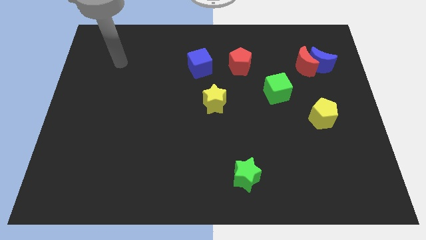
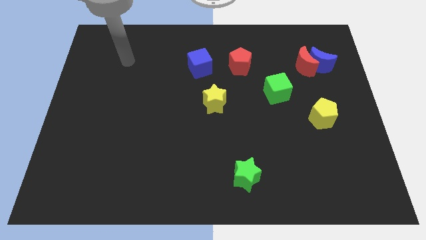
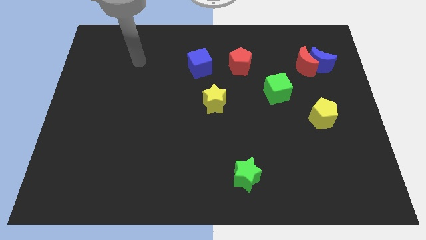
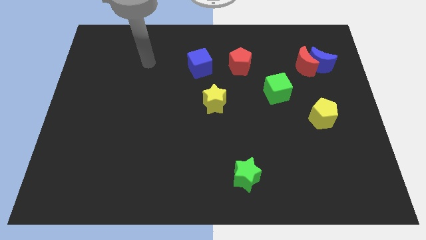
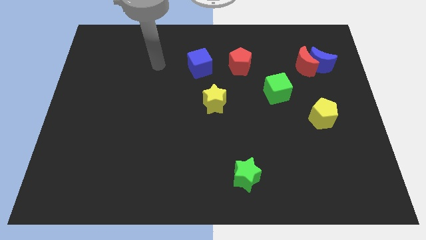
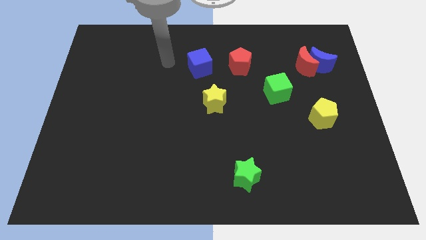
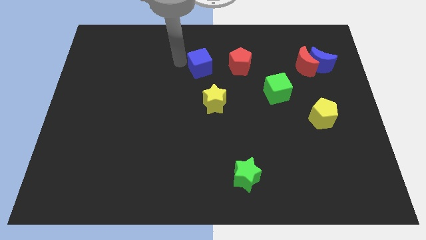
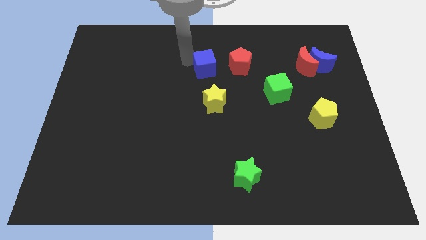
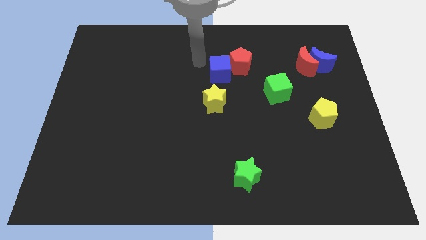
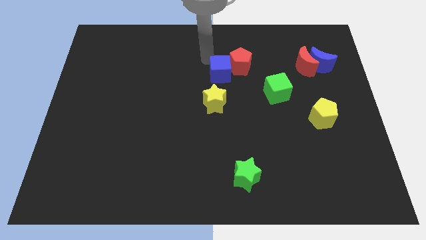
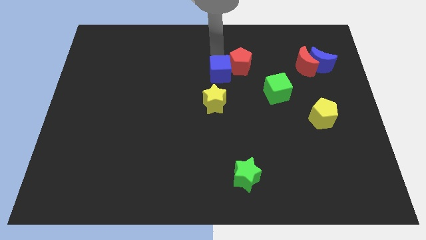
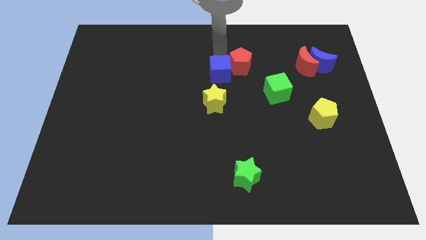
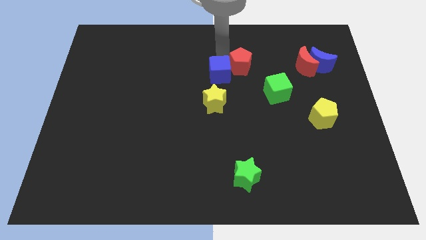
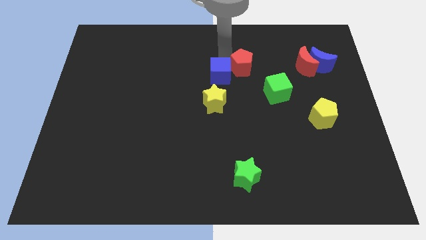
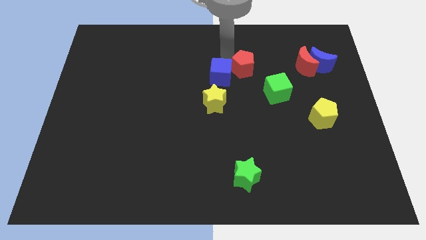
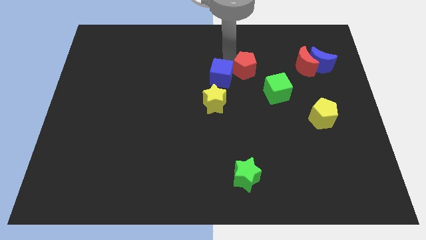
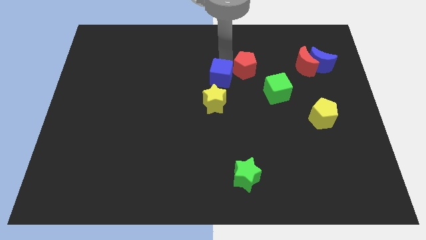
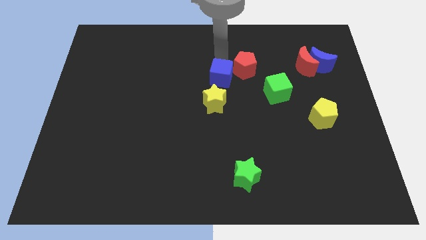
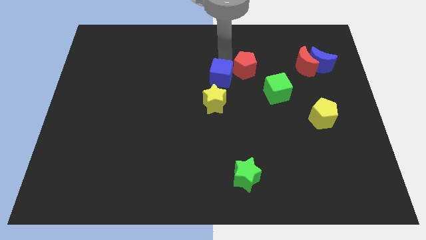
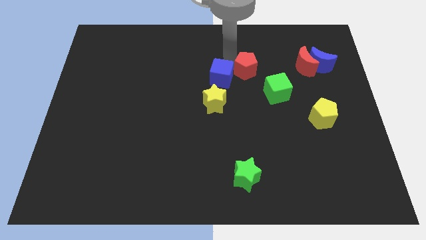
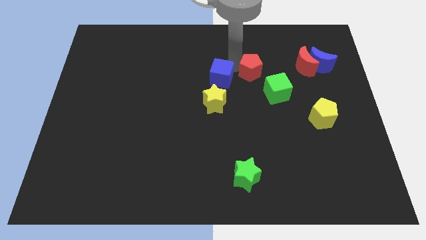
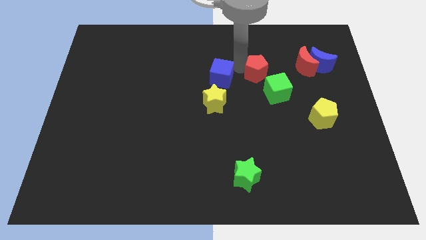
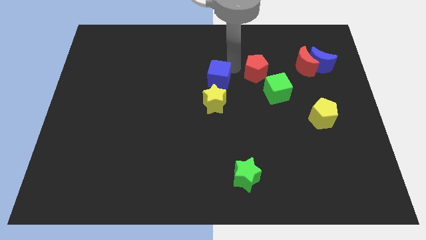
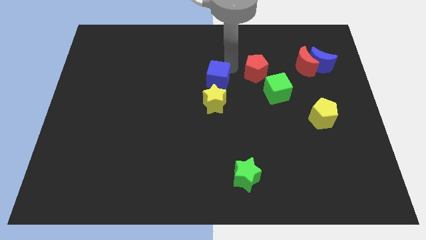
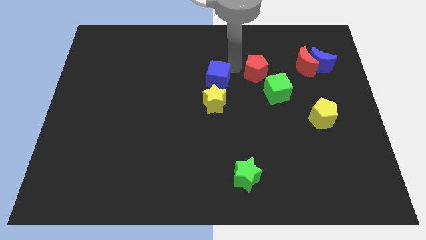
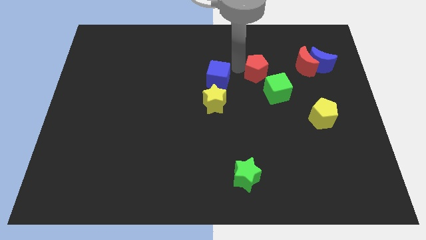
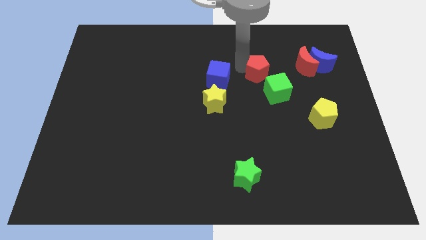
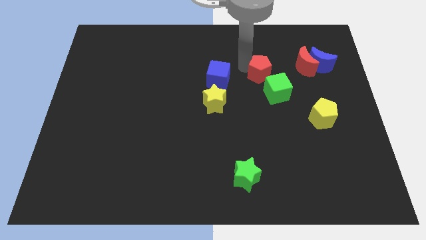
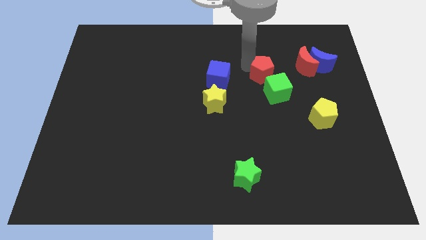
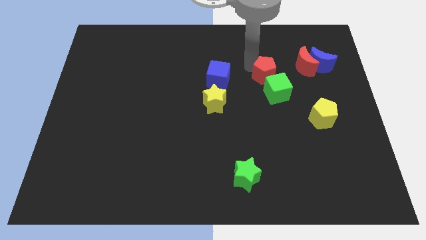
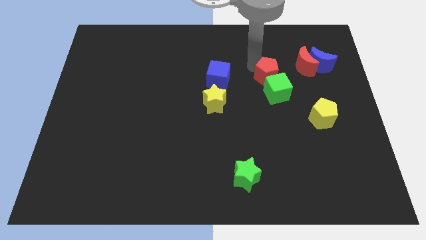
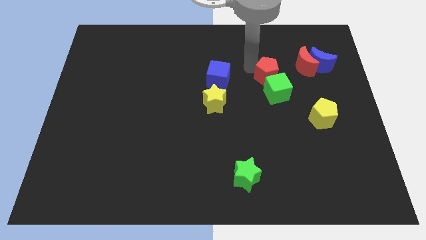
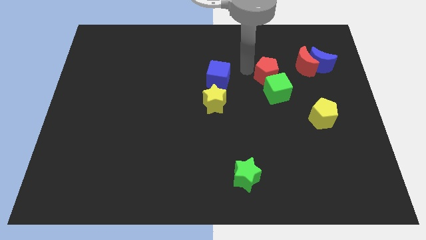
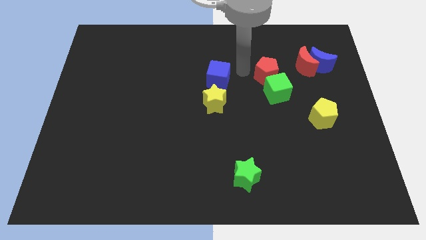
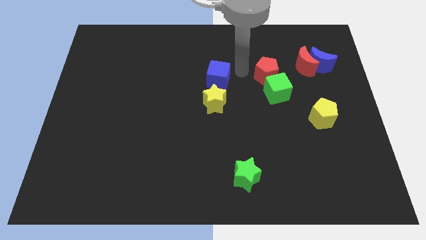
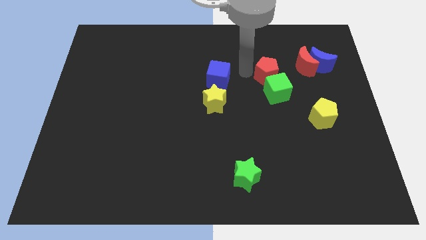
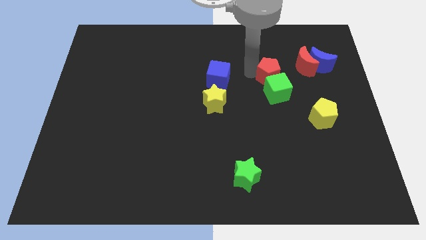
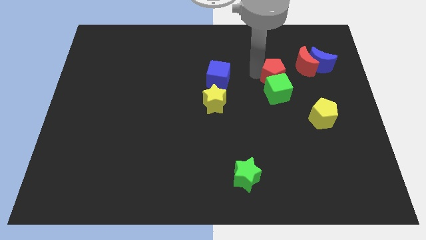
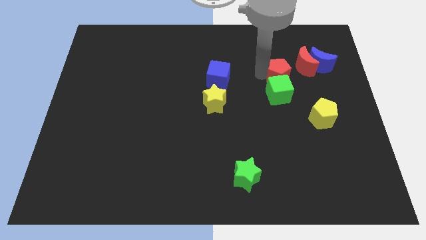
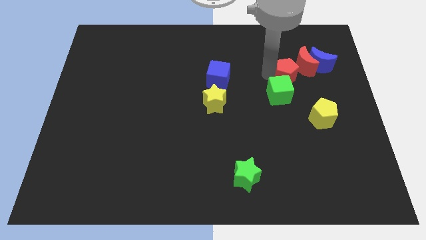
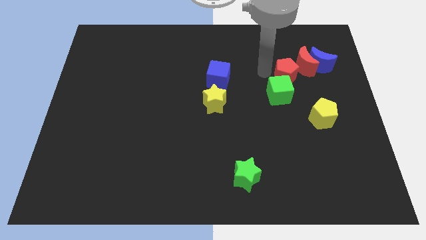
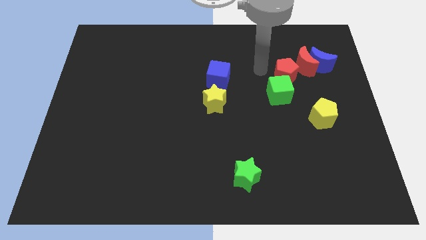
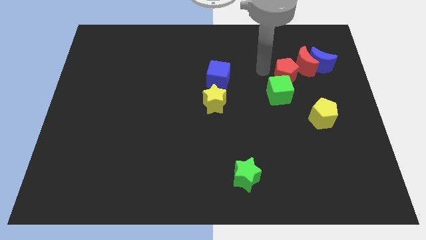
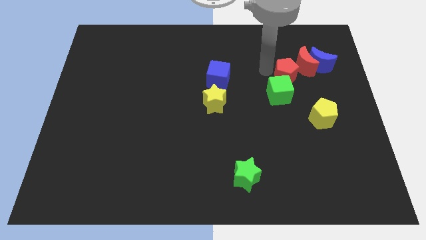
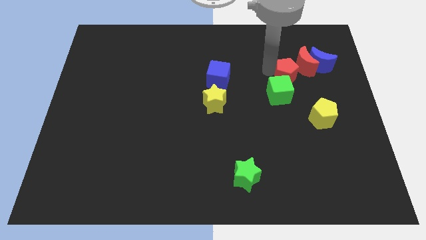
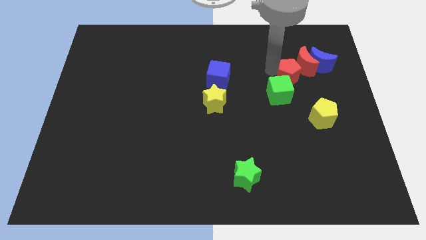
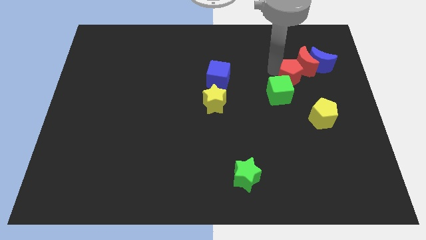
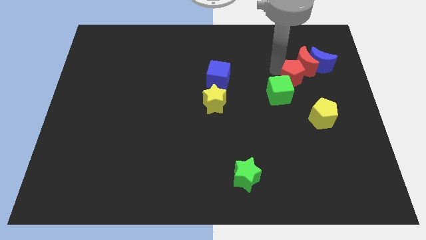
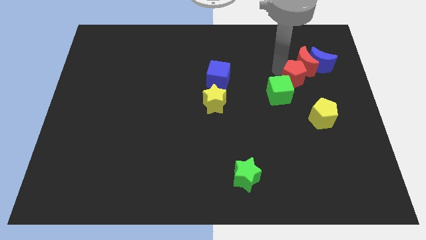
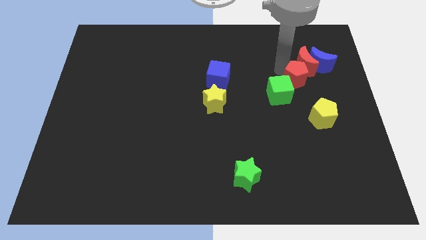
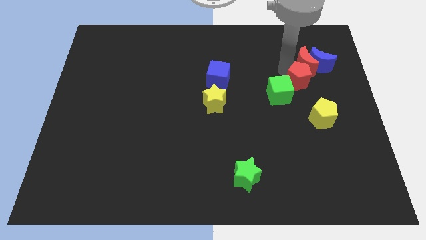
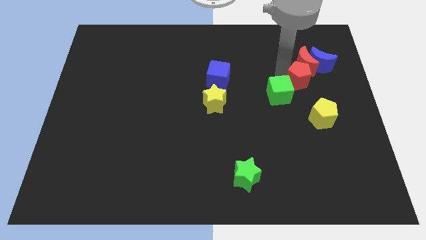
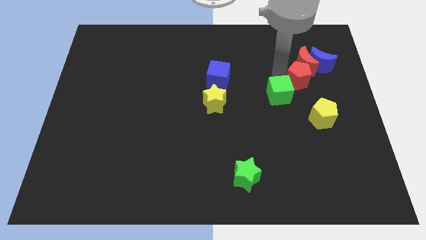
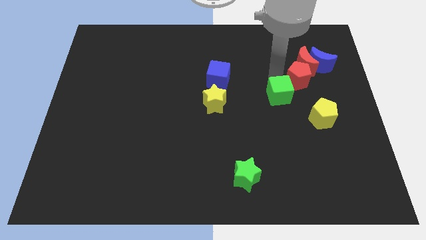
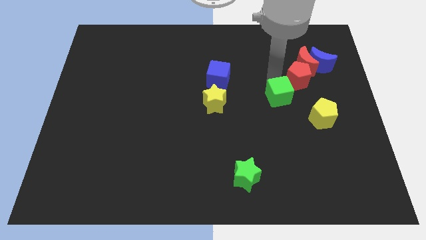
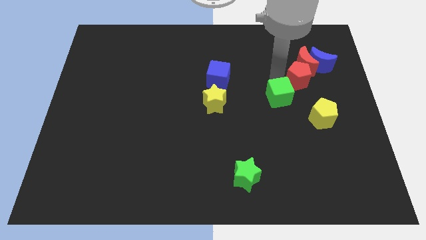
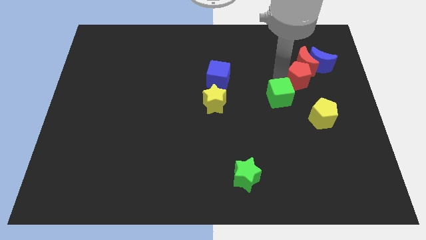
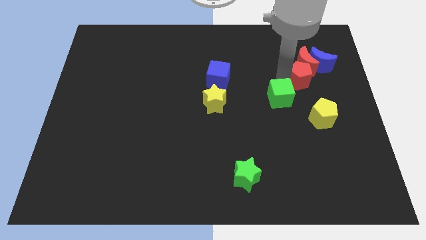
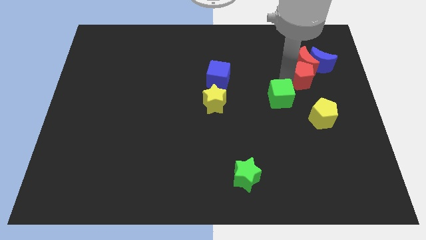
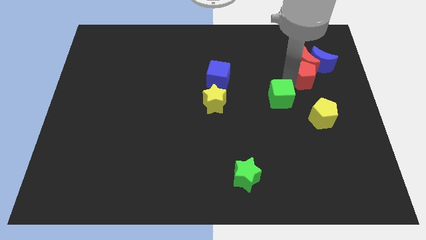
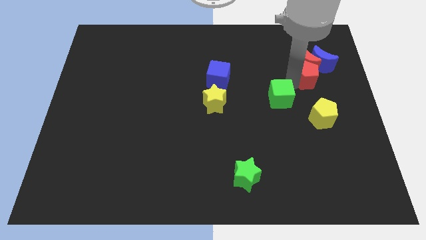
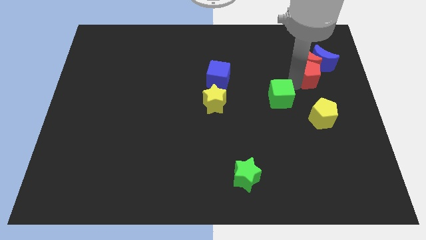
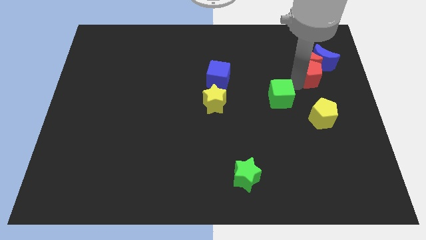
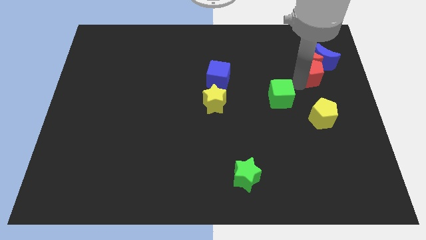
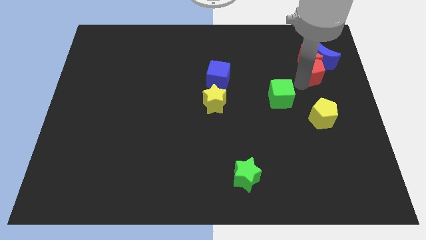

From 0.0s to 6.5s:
slide the red pentagon towards the blue moon

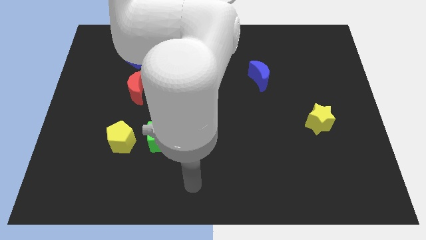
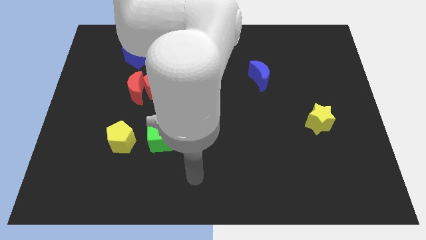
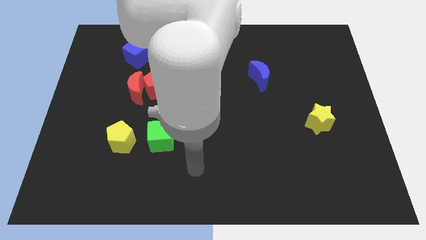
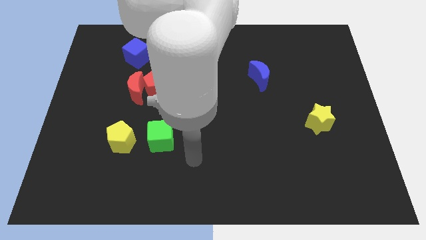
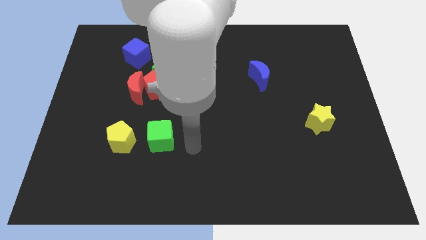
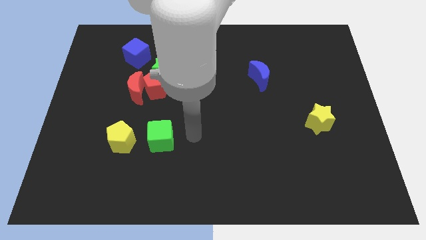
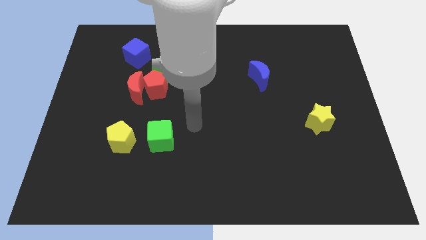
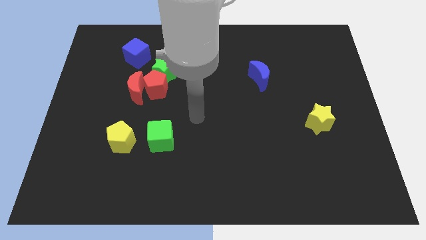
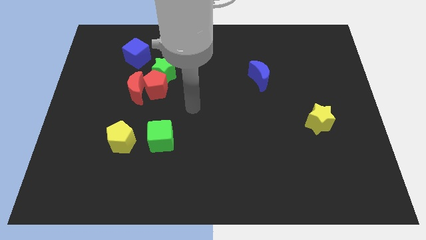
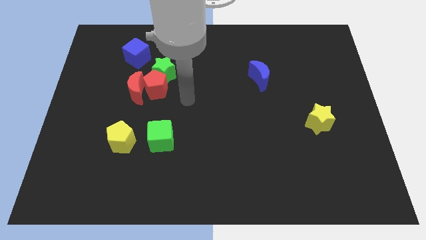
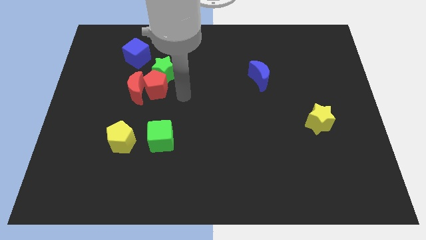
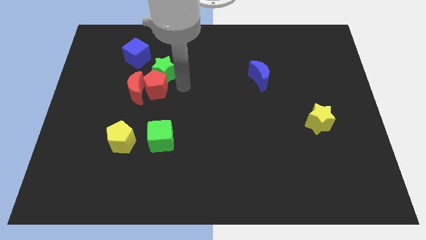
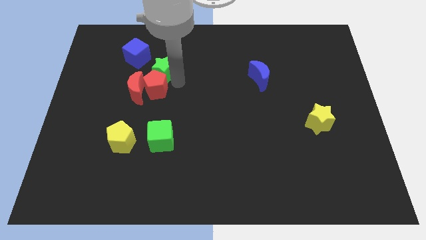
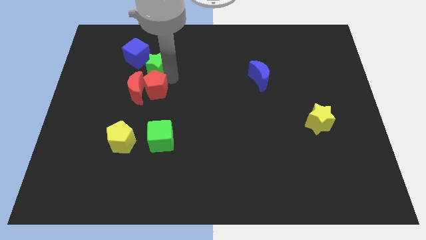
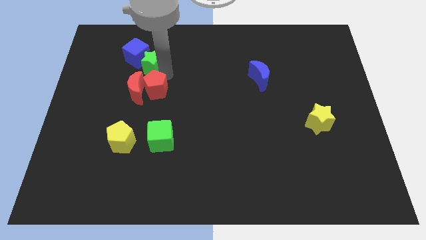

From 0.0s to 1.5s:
move the green star close to the blue cube

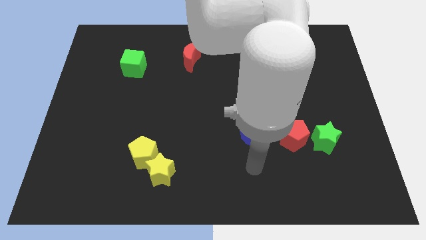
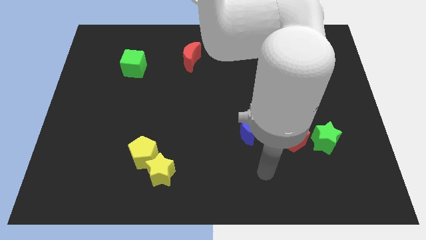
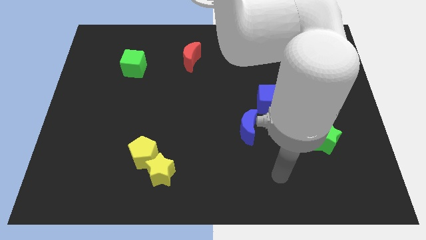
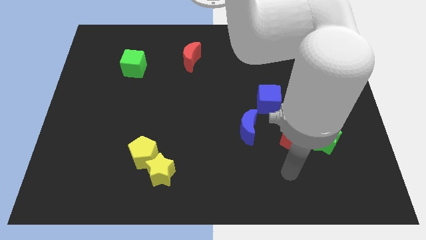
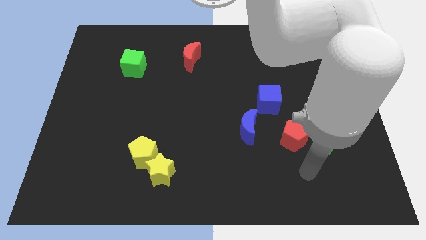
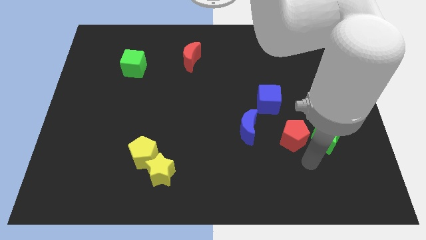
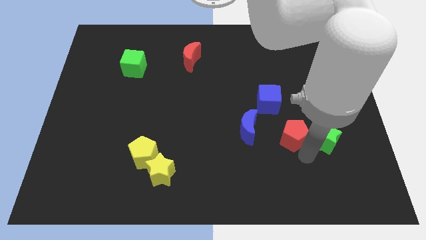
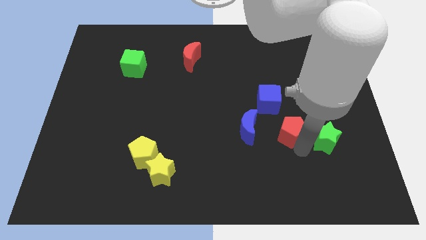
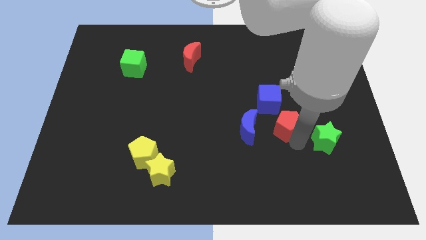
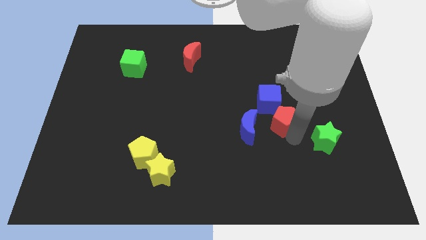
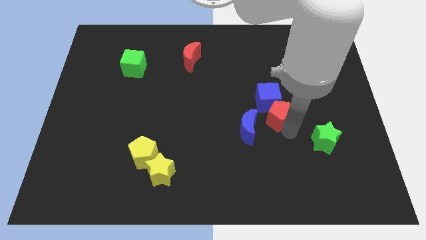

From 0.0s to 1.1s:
push the red pentagon towards the blue cube
